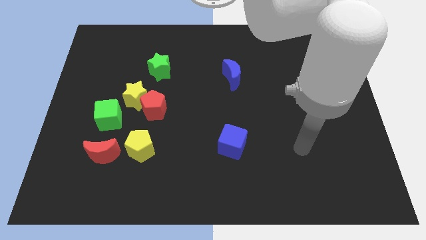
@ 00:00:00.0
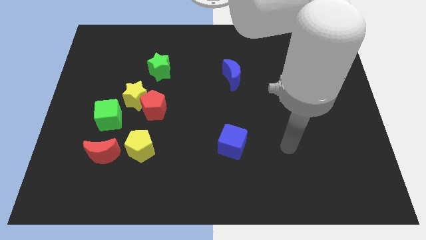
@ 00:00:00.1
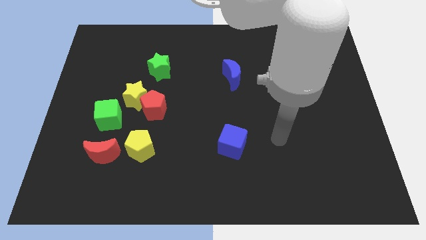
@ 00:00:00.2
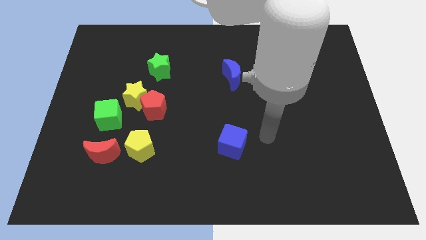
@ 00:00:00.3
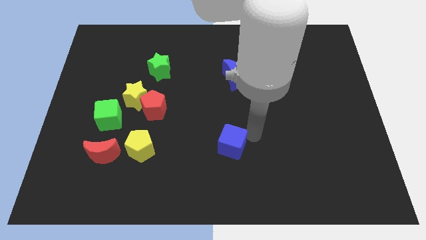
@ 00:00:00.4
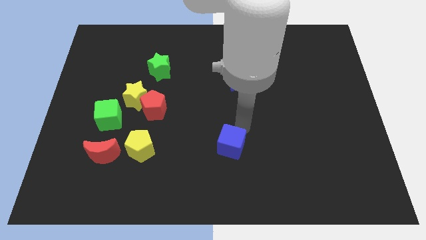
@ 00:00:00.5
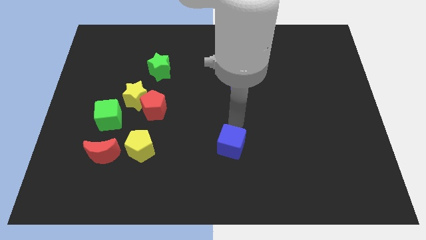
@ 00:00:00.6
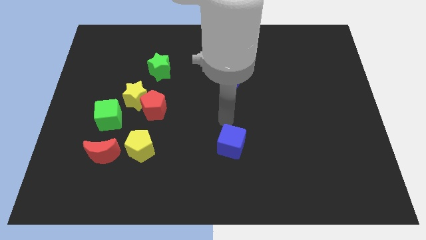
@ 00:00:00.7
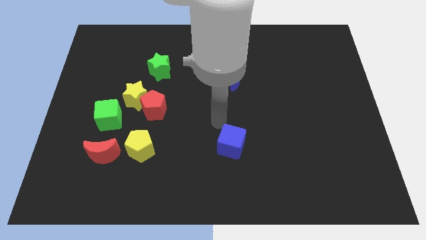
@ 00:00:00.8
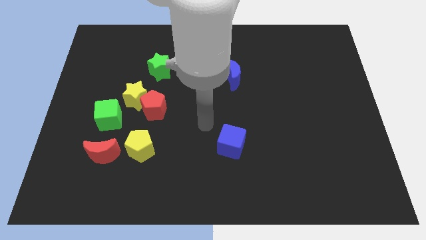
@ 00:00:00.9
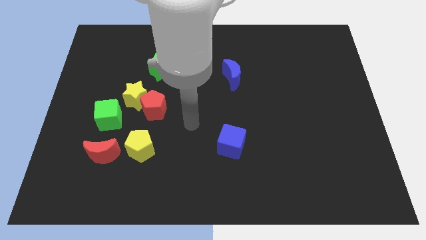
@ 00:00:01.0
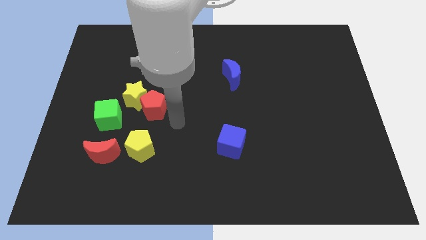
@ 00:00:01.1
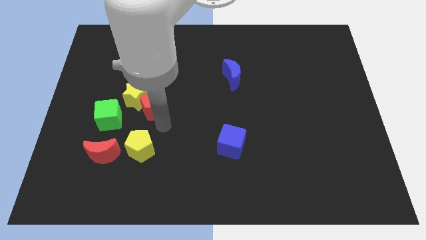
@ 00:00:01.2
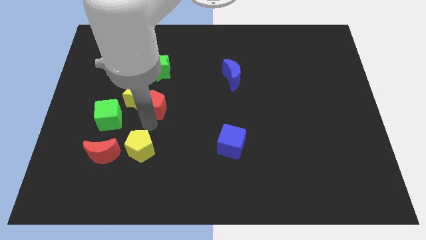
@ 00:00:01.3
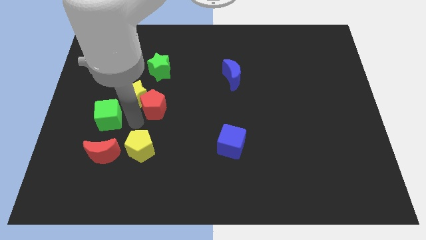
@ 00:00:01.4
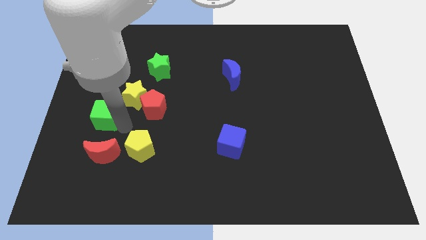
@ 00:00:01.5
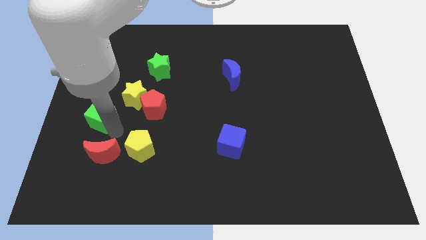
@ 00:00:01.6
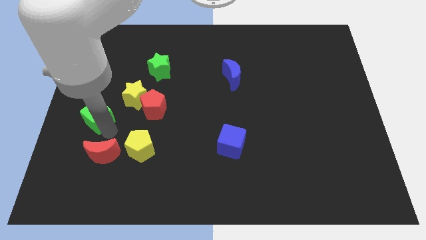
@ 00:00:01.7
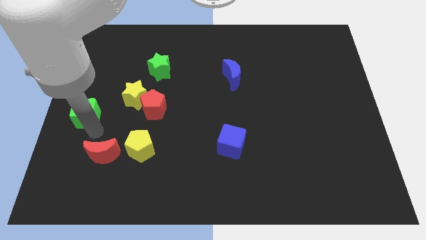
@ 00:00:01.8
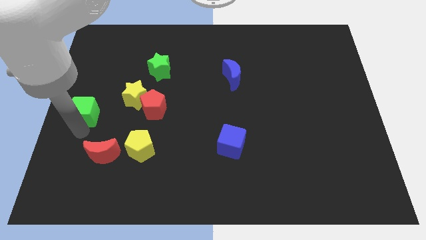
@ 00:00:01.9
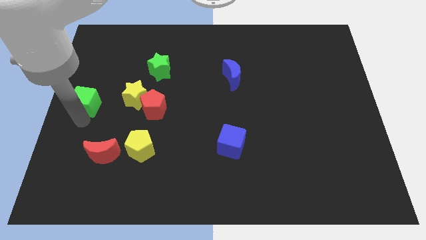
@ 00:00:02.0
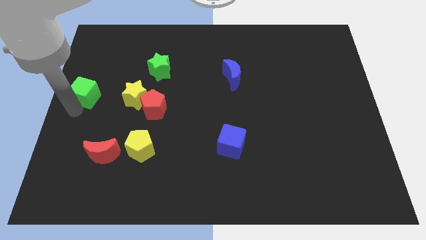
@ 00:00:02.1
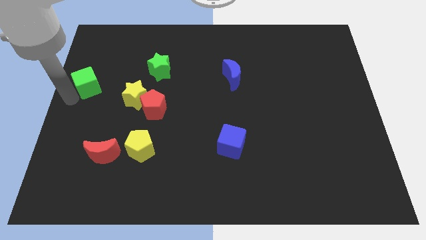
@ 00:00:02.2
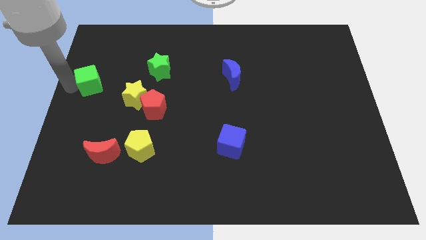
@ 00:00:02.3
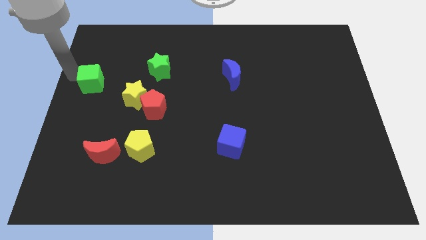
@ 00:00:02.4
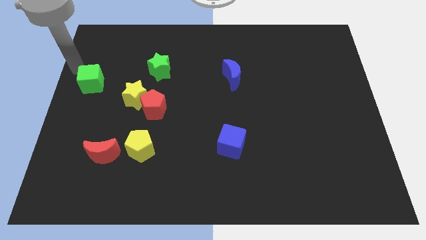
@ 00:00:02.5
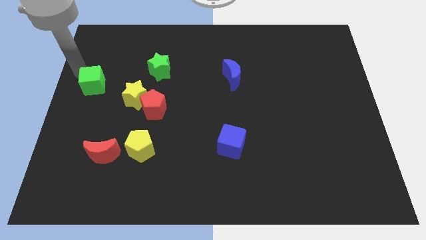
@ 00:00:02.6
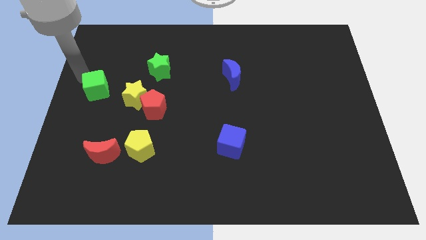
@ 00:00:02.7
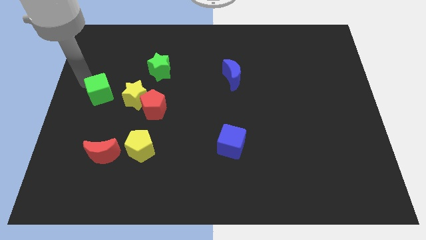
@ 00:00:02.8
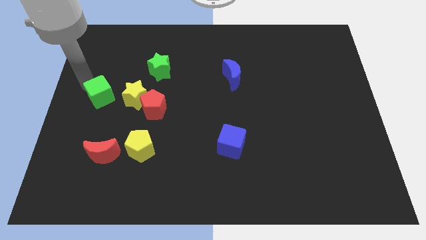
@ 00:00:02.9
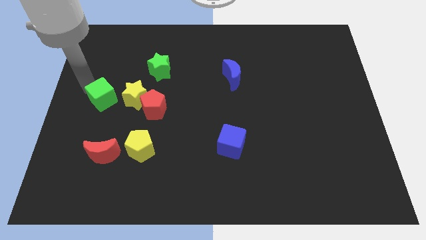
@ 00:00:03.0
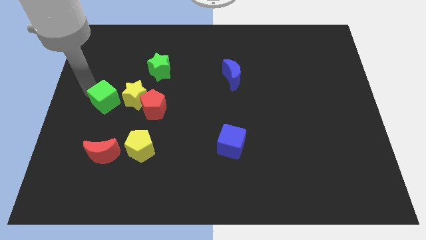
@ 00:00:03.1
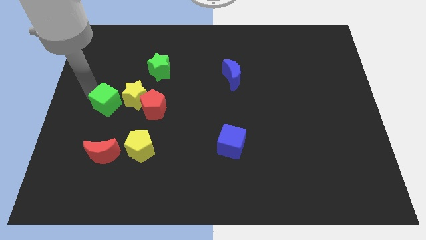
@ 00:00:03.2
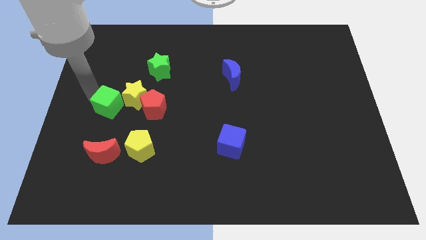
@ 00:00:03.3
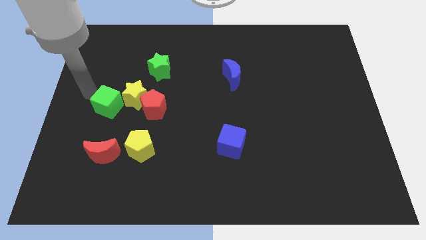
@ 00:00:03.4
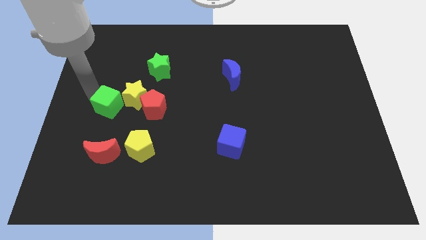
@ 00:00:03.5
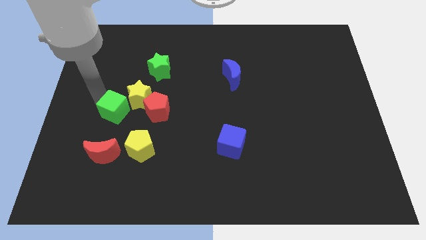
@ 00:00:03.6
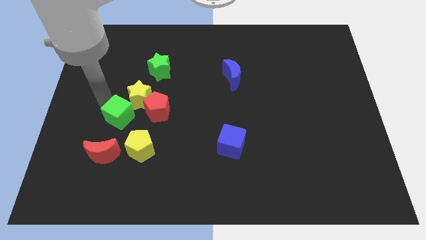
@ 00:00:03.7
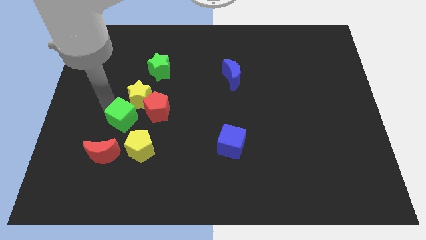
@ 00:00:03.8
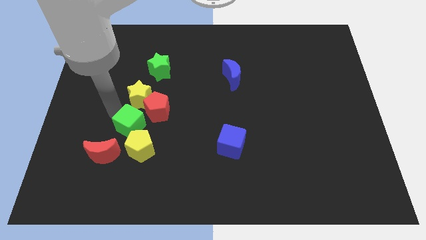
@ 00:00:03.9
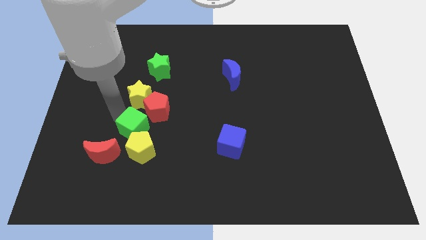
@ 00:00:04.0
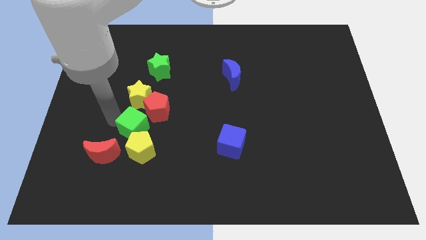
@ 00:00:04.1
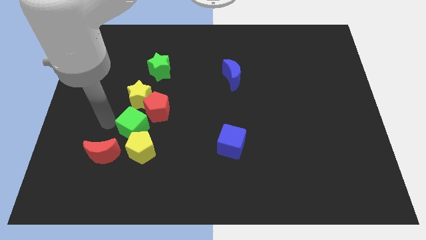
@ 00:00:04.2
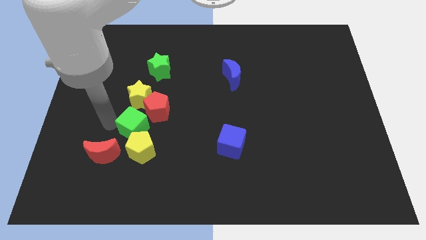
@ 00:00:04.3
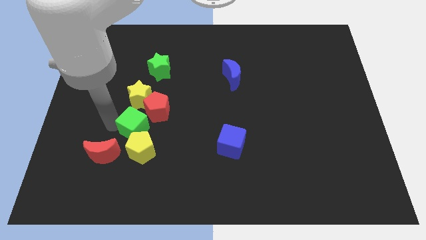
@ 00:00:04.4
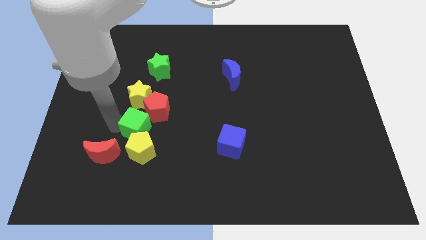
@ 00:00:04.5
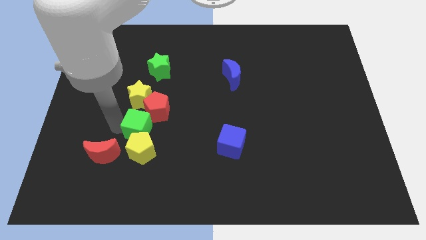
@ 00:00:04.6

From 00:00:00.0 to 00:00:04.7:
move the green cube a little downwards and then to the right

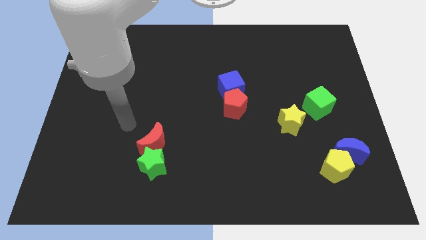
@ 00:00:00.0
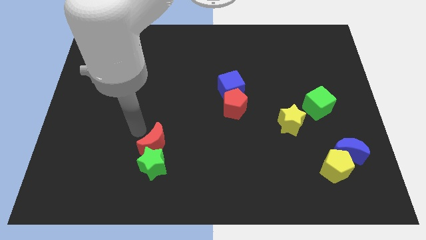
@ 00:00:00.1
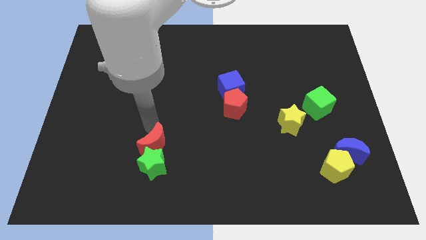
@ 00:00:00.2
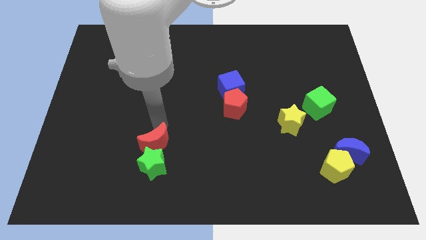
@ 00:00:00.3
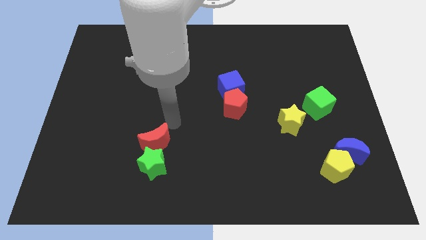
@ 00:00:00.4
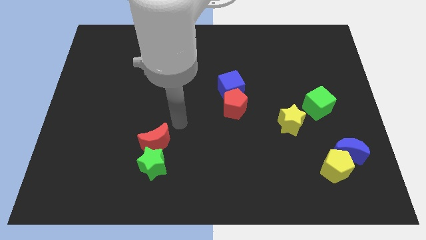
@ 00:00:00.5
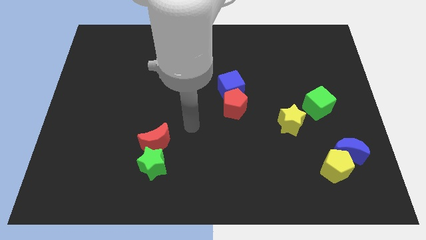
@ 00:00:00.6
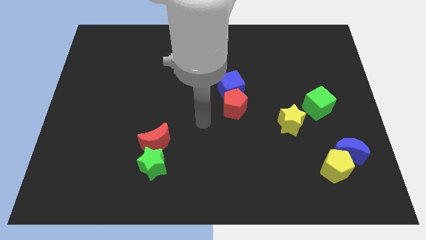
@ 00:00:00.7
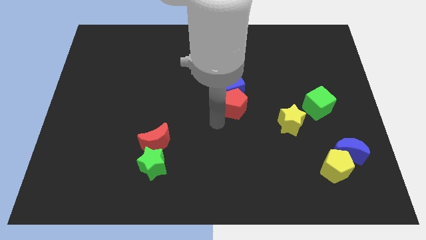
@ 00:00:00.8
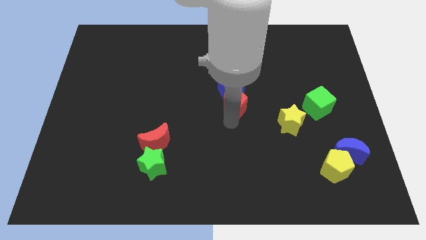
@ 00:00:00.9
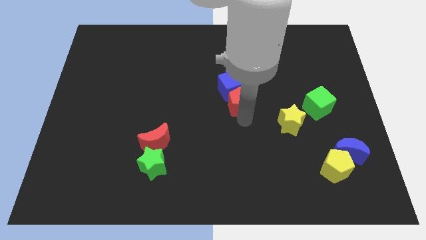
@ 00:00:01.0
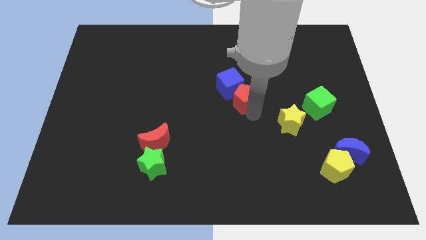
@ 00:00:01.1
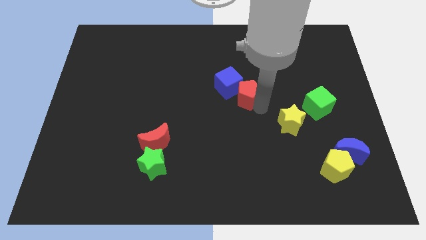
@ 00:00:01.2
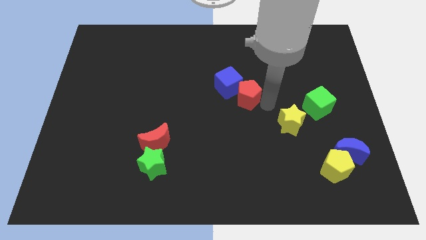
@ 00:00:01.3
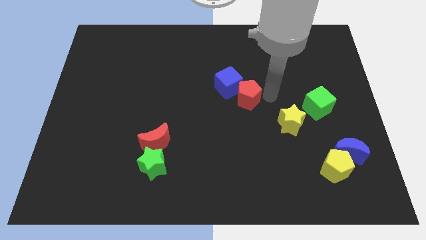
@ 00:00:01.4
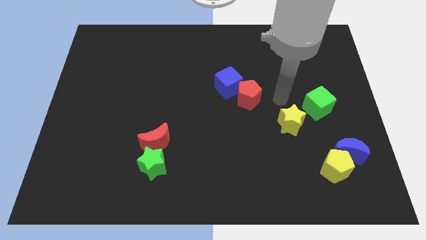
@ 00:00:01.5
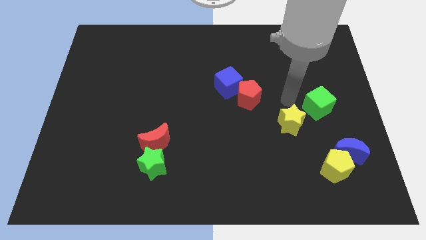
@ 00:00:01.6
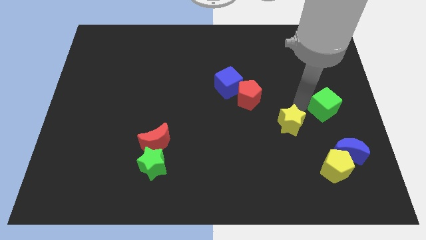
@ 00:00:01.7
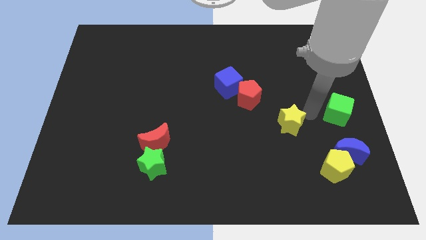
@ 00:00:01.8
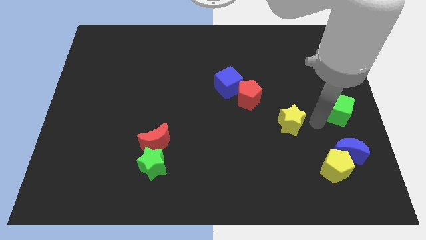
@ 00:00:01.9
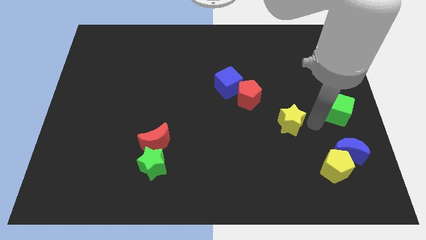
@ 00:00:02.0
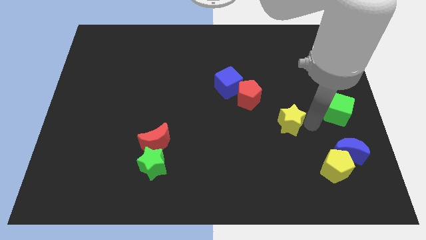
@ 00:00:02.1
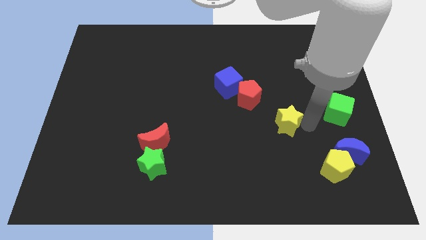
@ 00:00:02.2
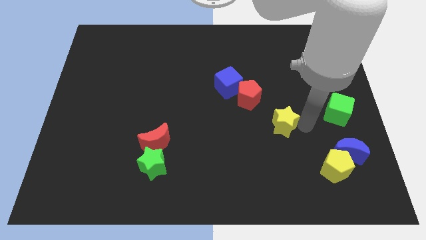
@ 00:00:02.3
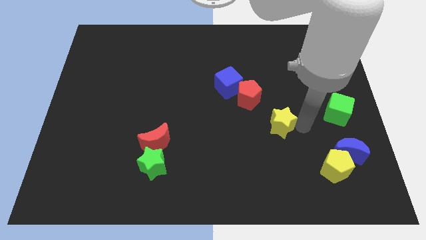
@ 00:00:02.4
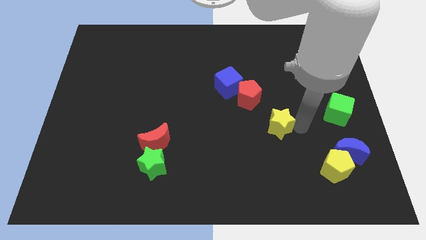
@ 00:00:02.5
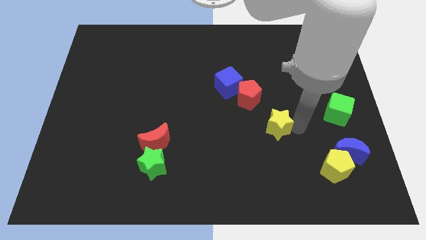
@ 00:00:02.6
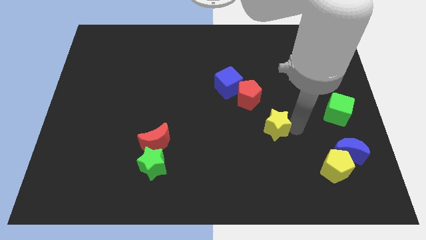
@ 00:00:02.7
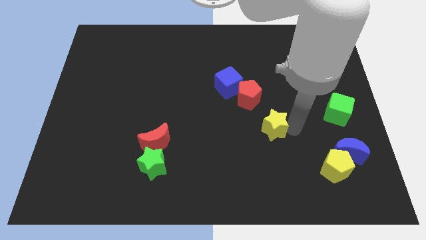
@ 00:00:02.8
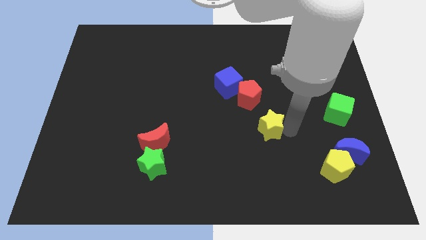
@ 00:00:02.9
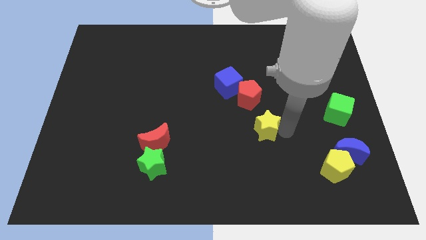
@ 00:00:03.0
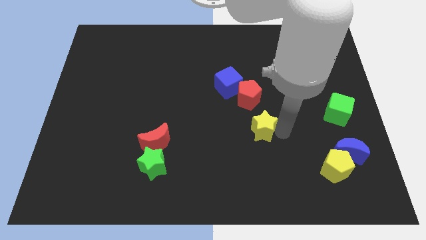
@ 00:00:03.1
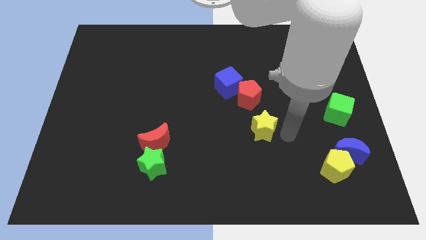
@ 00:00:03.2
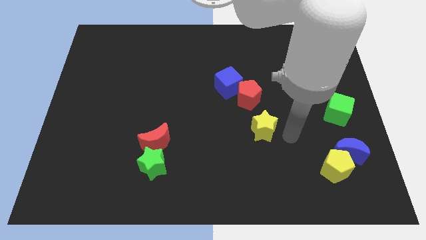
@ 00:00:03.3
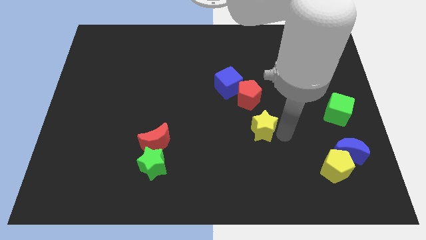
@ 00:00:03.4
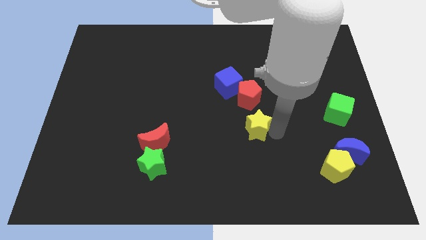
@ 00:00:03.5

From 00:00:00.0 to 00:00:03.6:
move the yellow star to the left slightly
